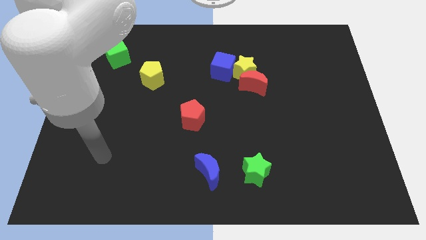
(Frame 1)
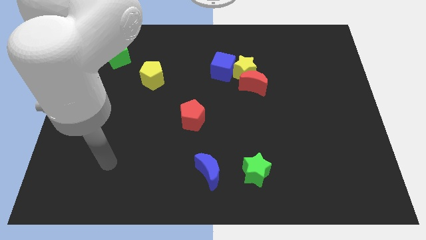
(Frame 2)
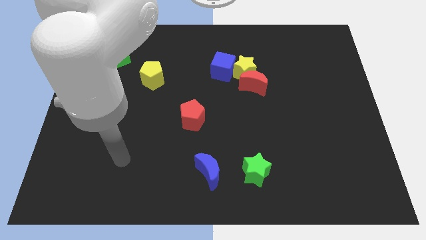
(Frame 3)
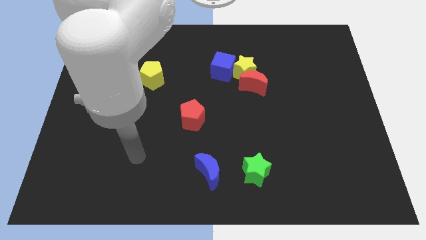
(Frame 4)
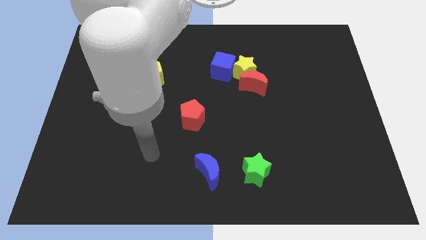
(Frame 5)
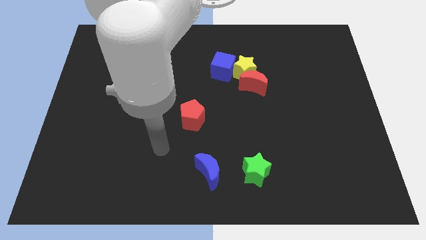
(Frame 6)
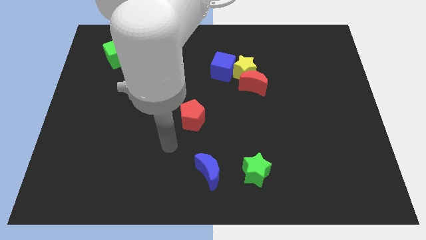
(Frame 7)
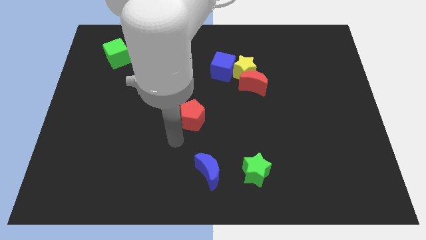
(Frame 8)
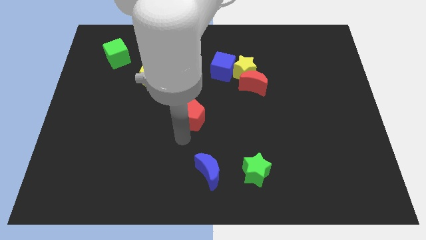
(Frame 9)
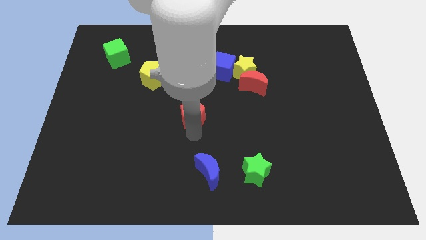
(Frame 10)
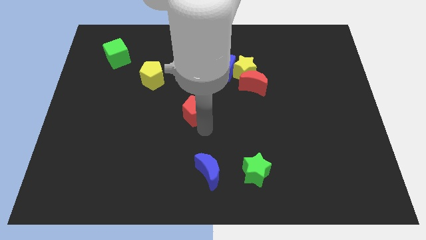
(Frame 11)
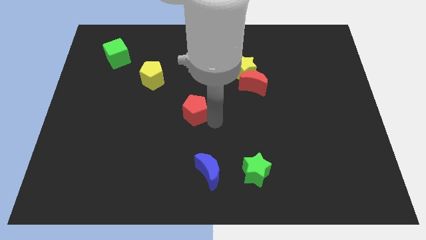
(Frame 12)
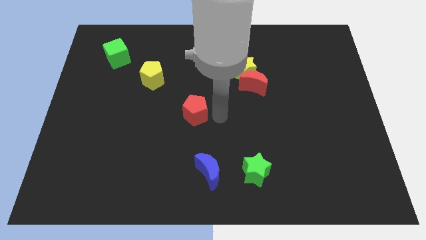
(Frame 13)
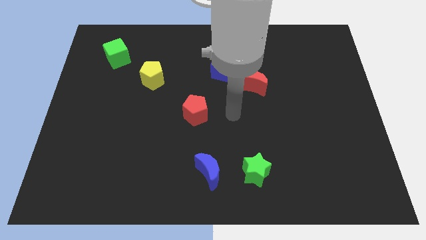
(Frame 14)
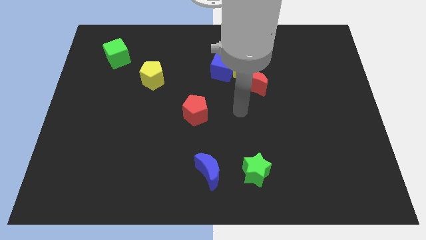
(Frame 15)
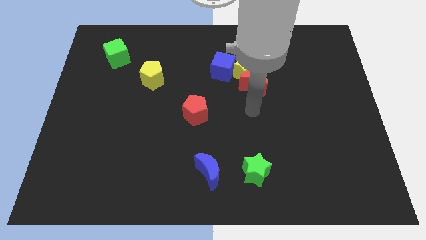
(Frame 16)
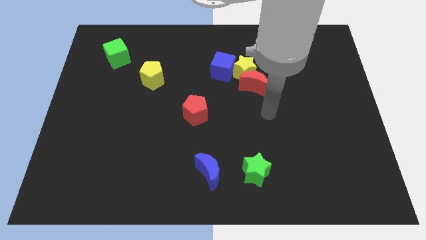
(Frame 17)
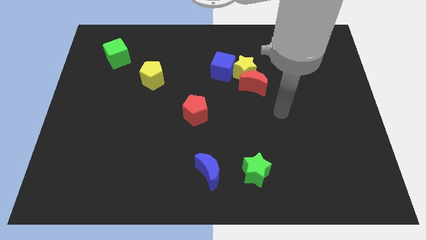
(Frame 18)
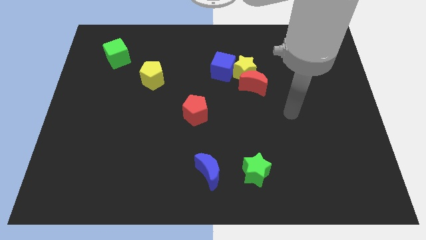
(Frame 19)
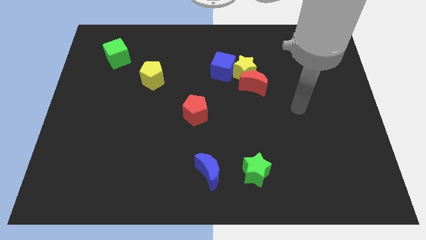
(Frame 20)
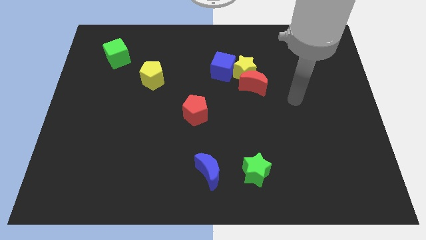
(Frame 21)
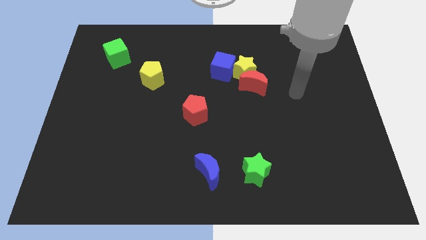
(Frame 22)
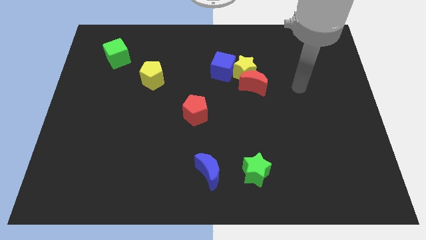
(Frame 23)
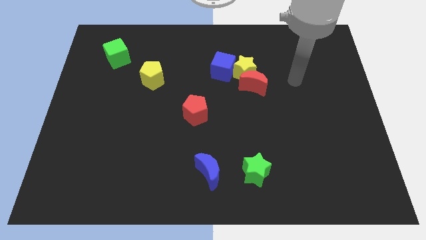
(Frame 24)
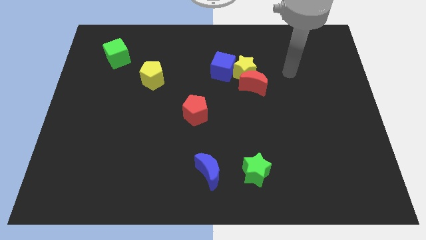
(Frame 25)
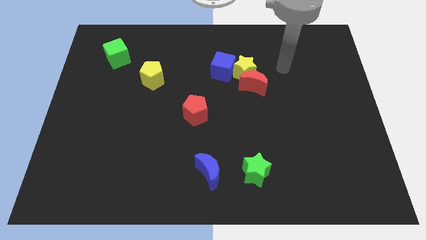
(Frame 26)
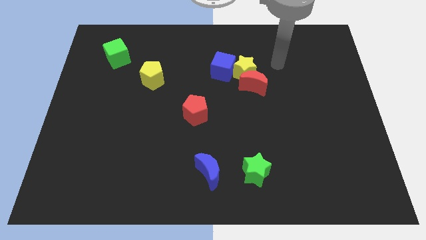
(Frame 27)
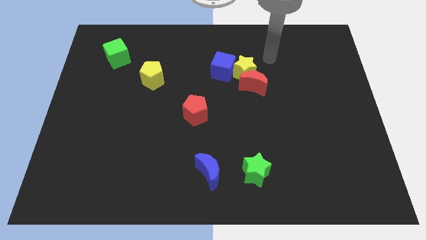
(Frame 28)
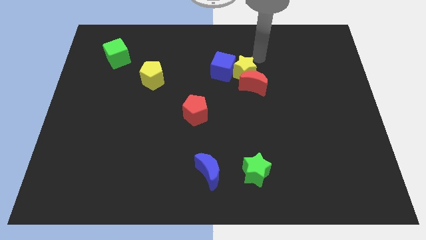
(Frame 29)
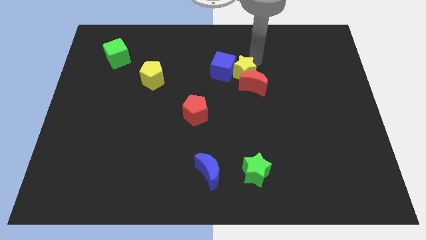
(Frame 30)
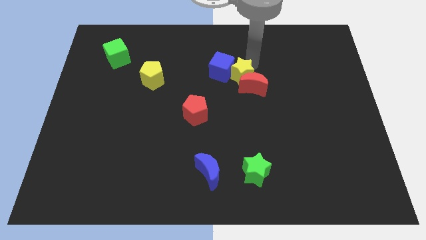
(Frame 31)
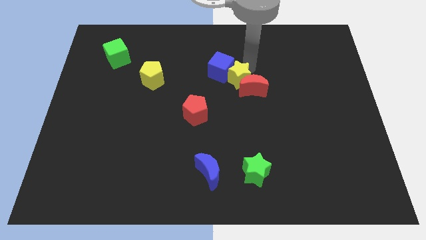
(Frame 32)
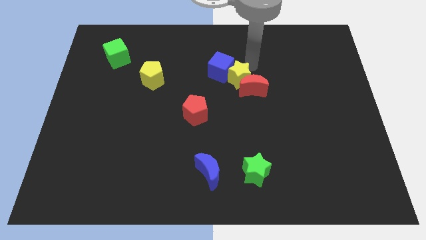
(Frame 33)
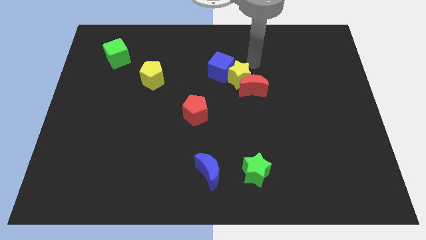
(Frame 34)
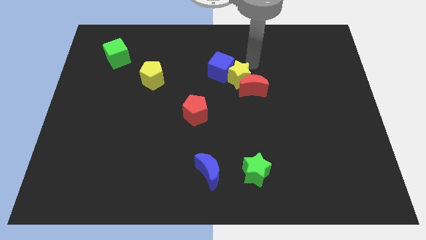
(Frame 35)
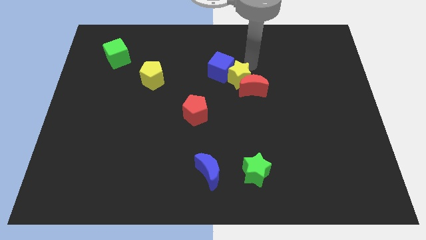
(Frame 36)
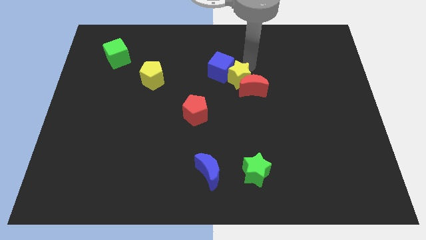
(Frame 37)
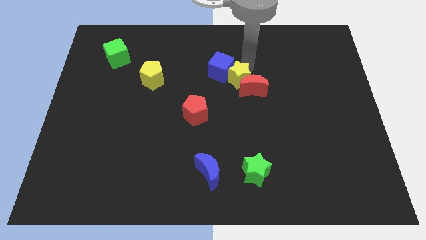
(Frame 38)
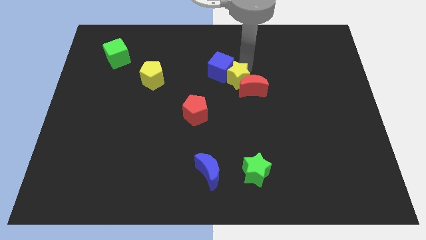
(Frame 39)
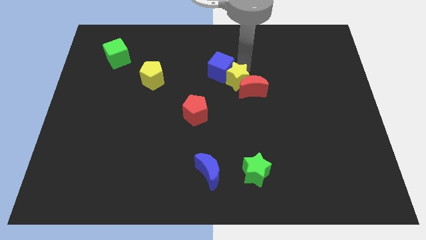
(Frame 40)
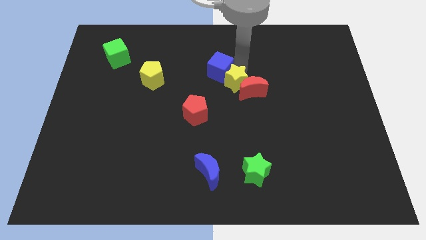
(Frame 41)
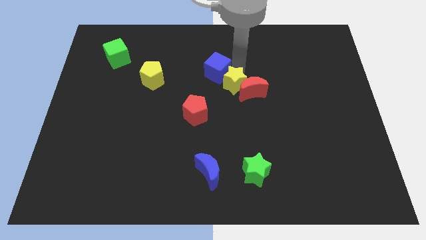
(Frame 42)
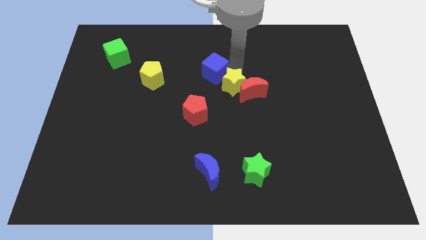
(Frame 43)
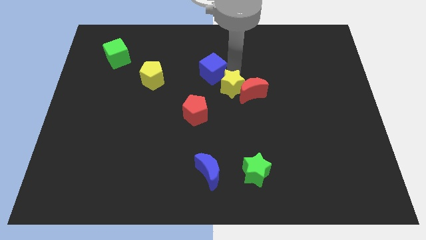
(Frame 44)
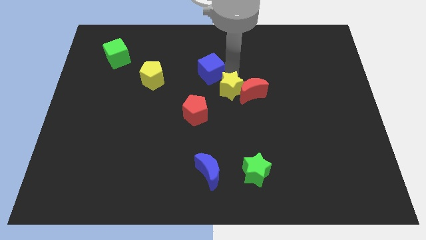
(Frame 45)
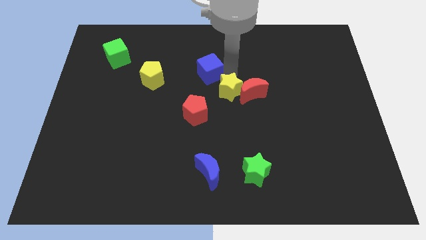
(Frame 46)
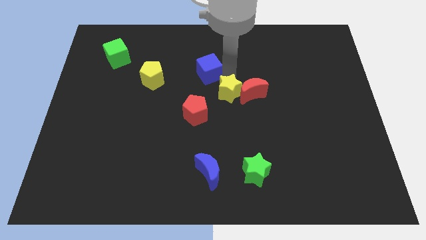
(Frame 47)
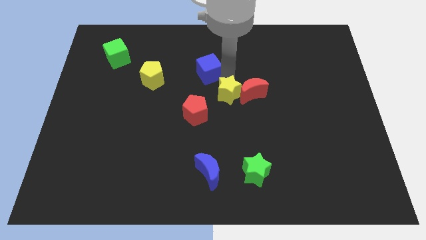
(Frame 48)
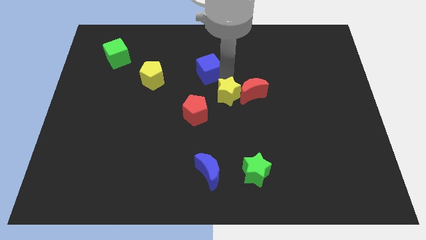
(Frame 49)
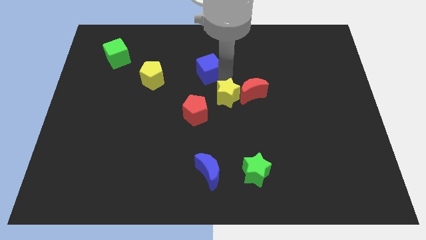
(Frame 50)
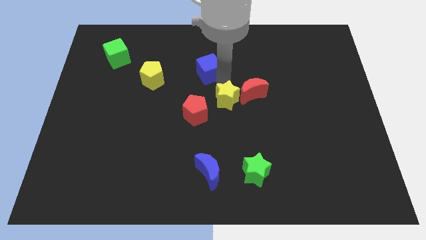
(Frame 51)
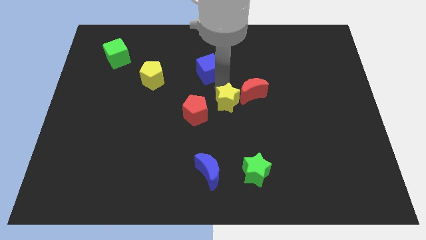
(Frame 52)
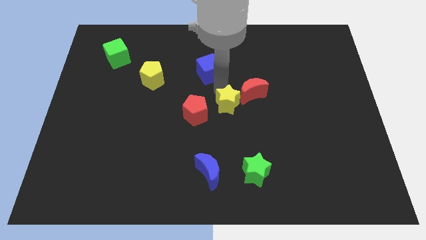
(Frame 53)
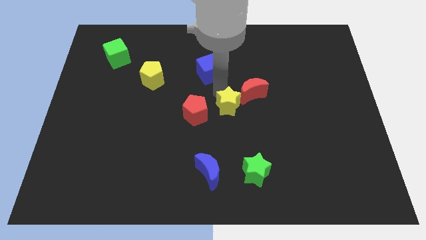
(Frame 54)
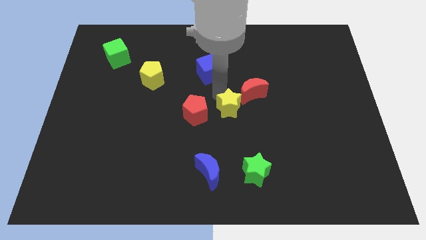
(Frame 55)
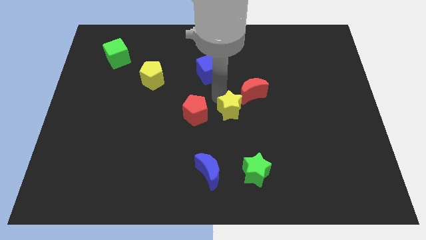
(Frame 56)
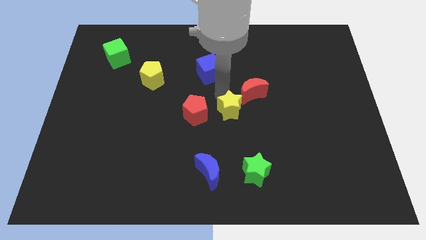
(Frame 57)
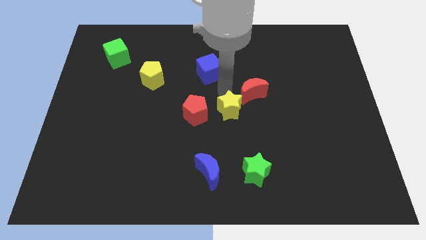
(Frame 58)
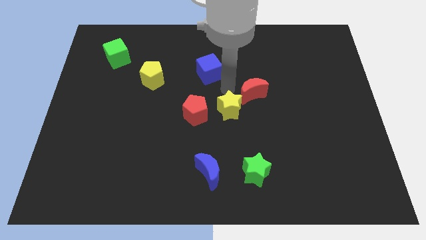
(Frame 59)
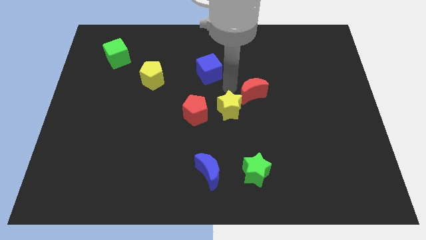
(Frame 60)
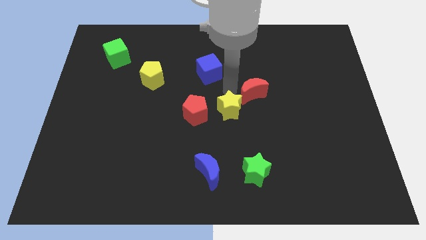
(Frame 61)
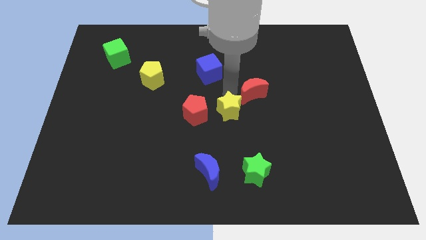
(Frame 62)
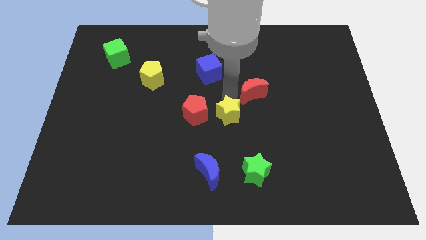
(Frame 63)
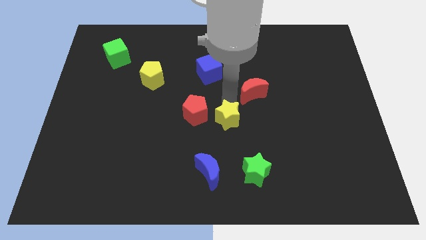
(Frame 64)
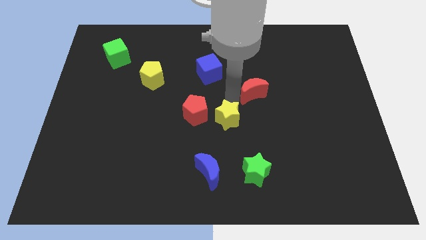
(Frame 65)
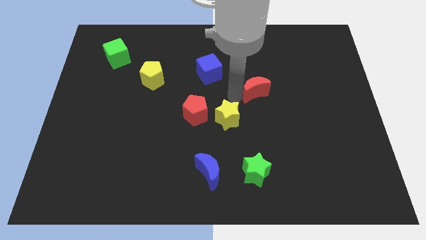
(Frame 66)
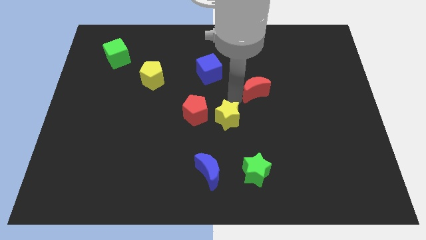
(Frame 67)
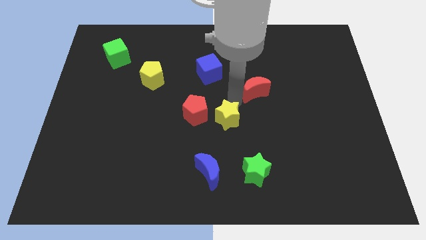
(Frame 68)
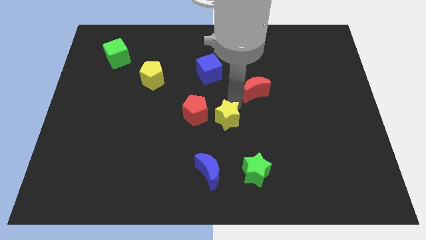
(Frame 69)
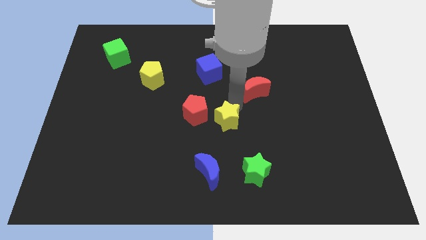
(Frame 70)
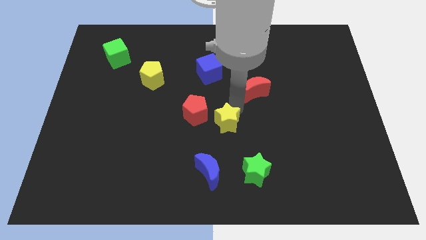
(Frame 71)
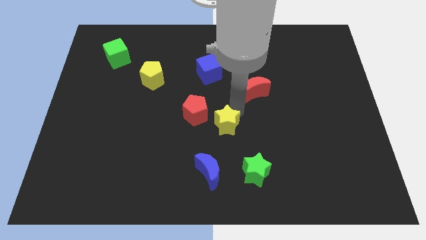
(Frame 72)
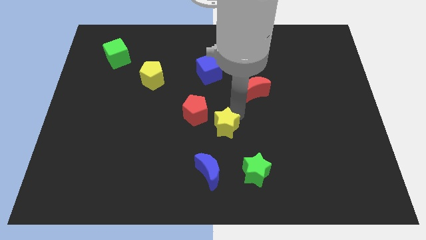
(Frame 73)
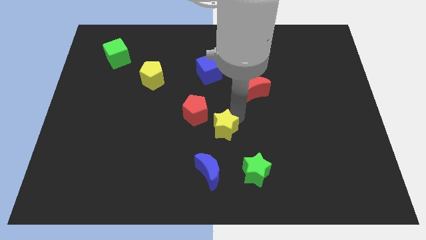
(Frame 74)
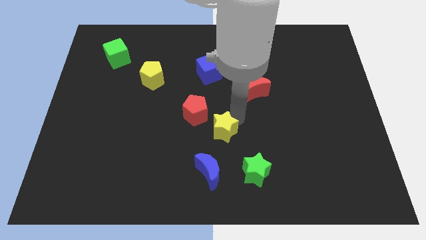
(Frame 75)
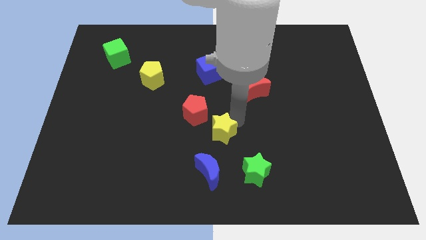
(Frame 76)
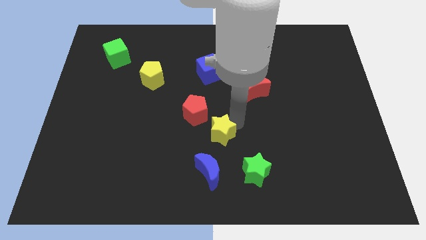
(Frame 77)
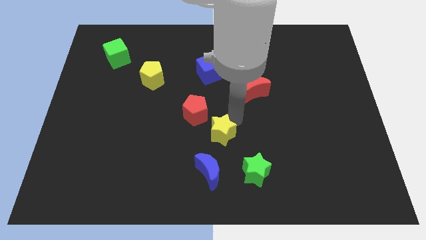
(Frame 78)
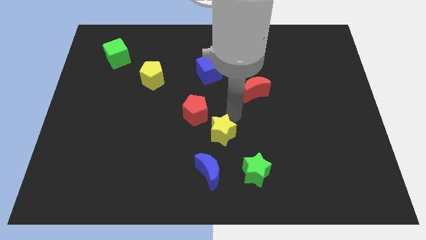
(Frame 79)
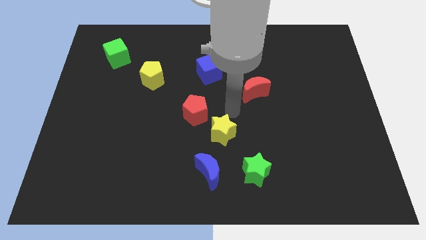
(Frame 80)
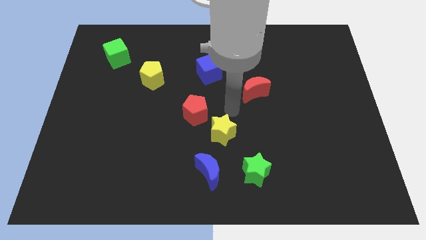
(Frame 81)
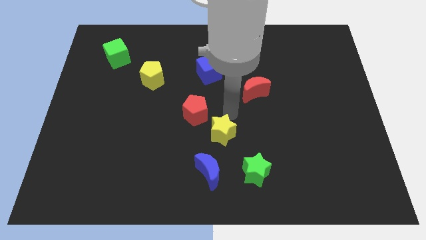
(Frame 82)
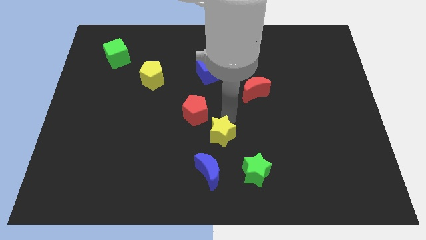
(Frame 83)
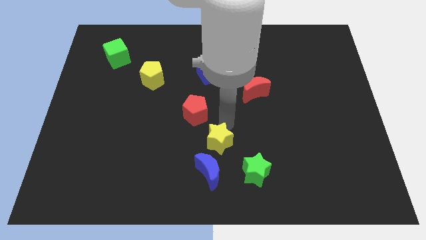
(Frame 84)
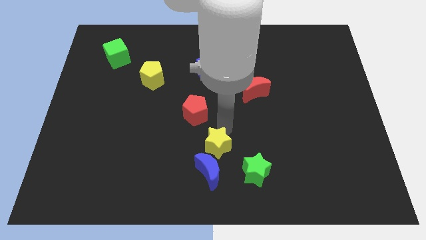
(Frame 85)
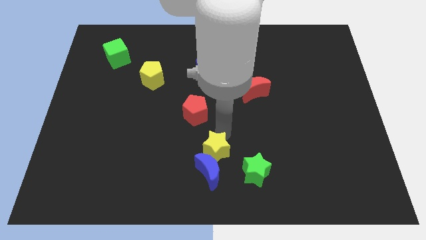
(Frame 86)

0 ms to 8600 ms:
push the yellow star to the blue moon
